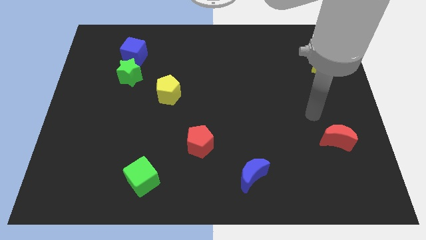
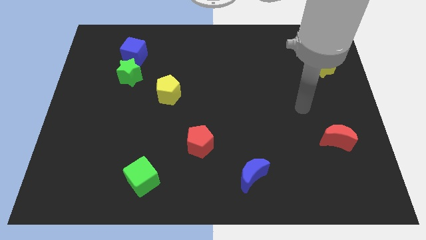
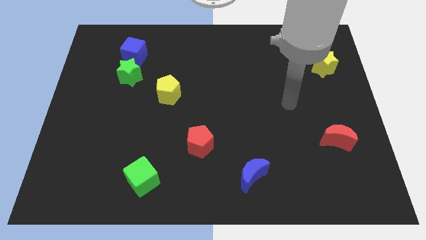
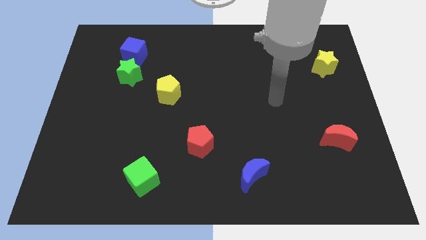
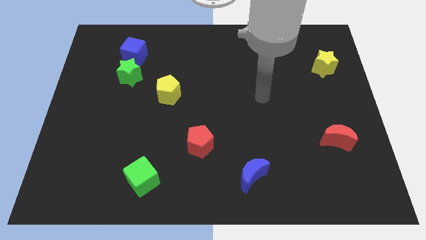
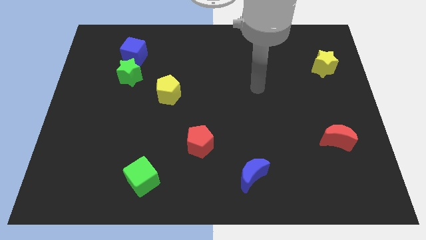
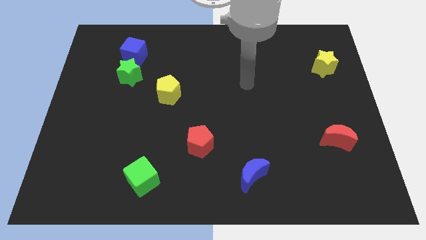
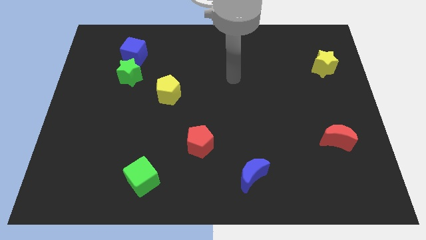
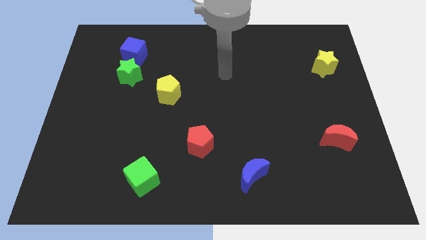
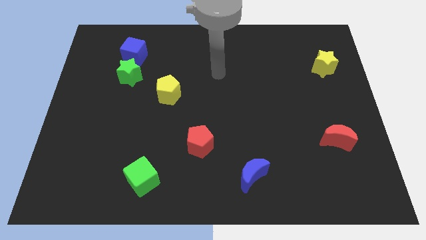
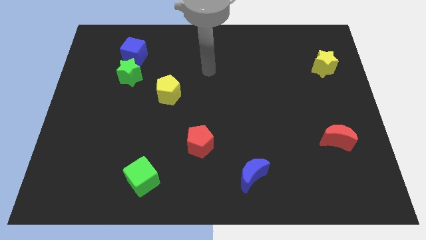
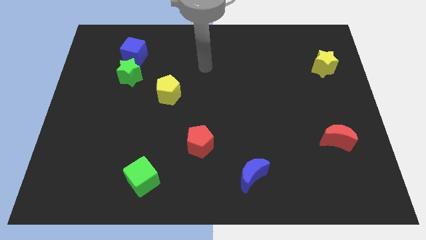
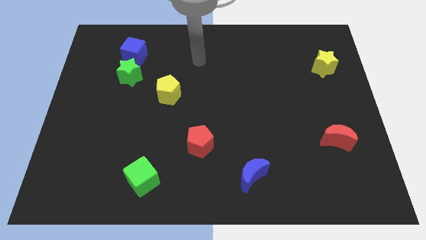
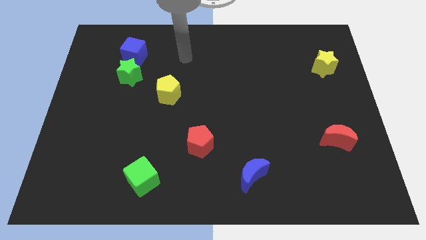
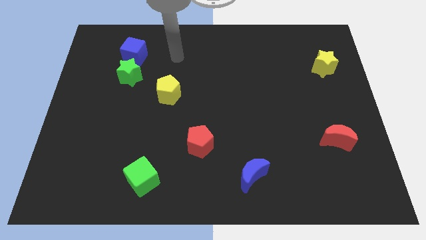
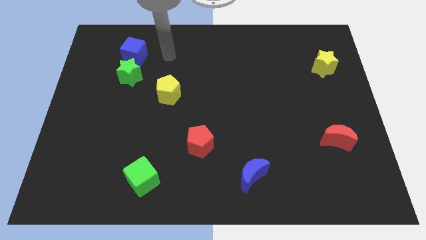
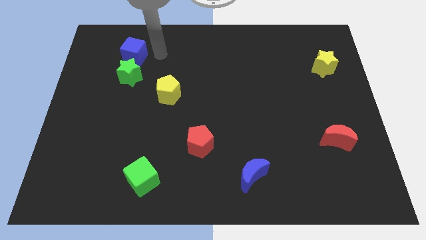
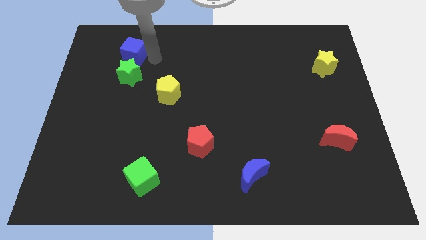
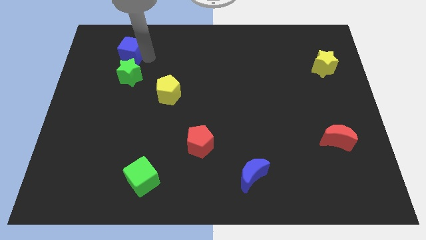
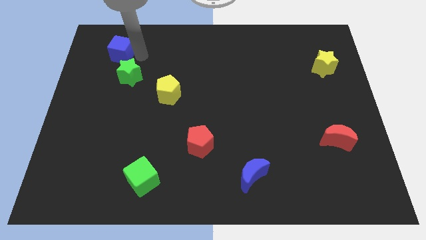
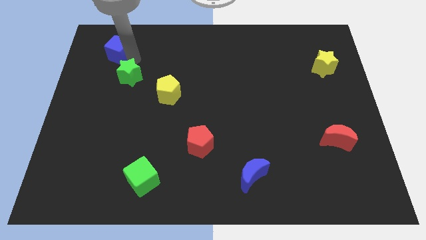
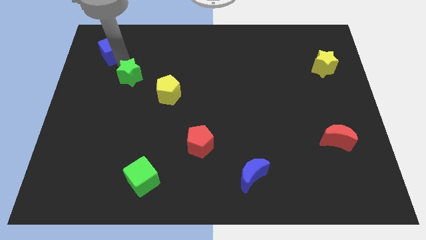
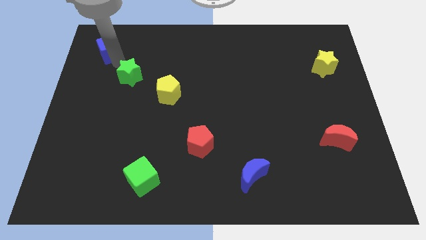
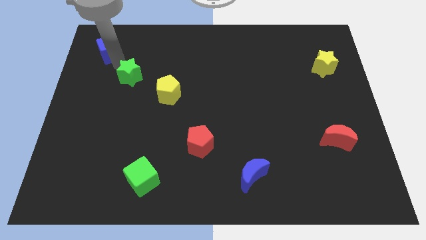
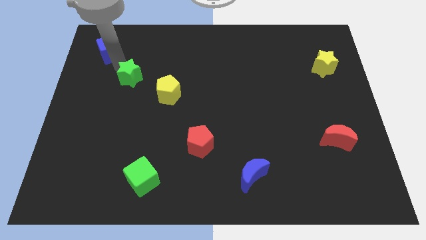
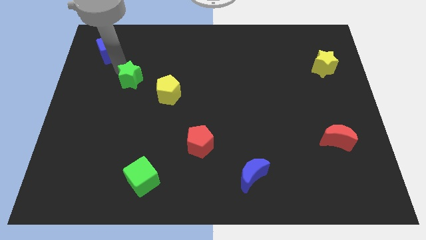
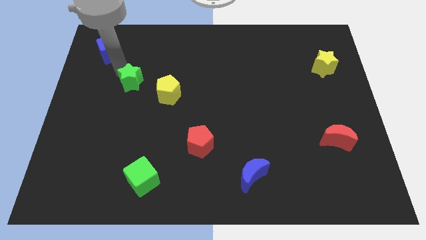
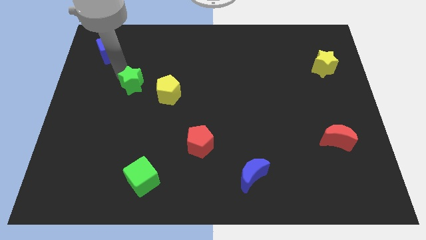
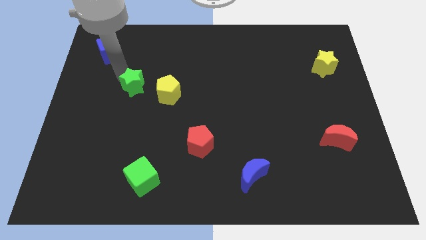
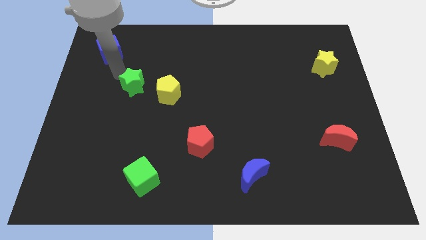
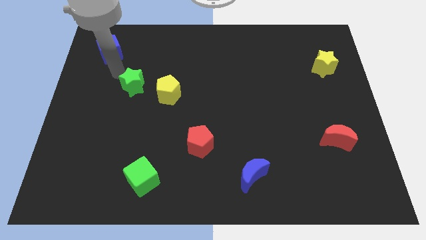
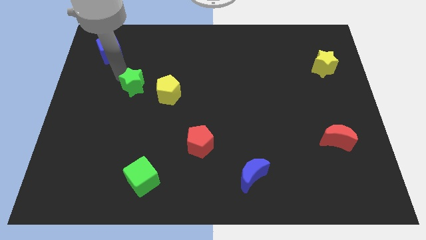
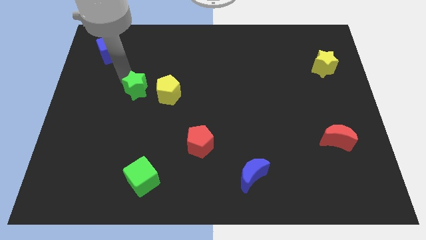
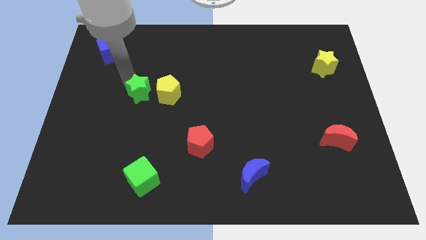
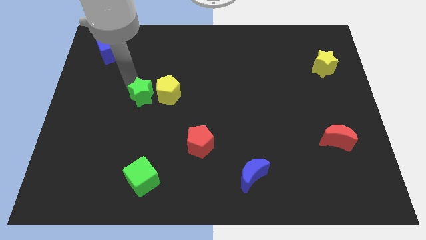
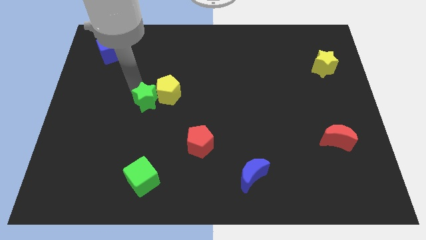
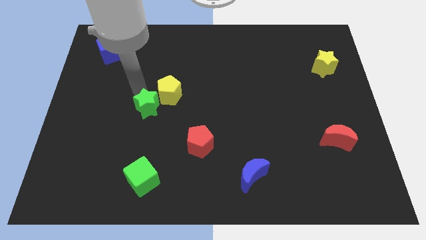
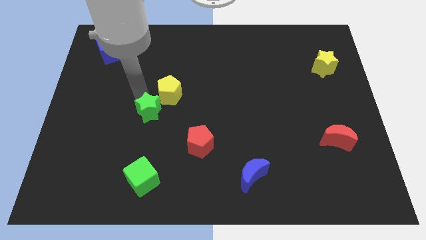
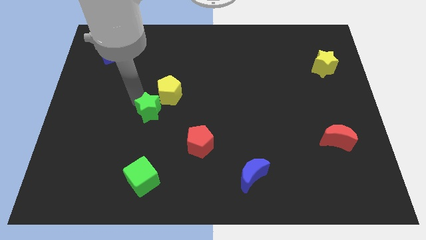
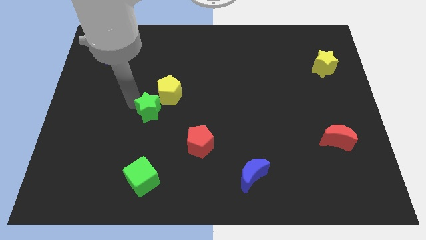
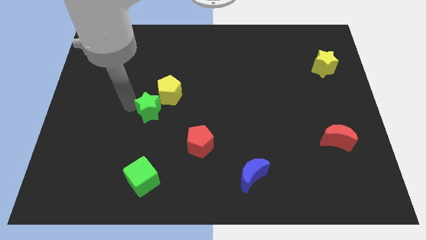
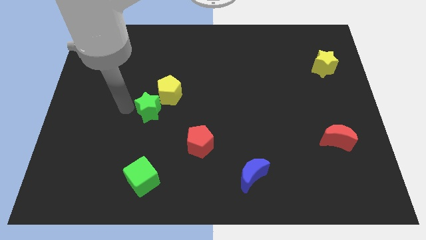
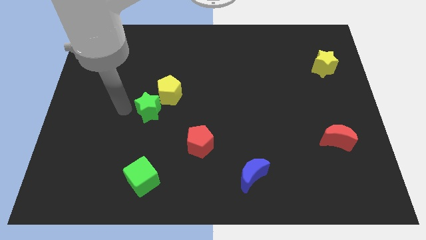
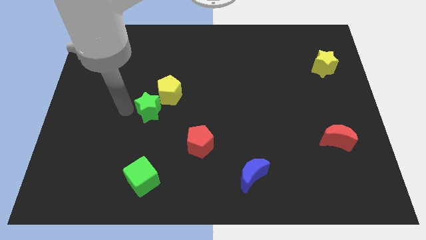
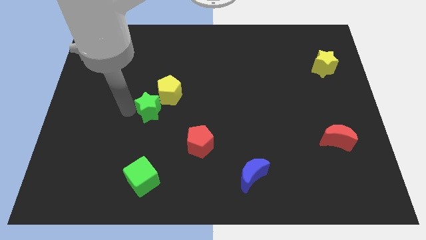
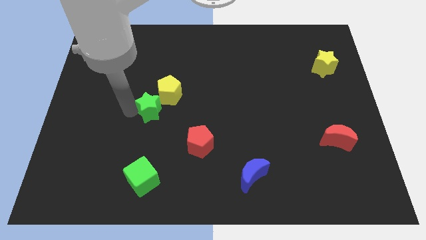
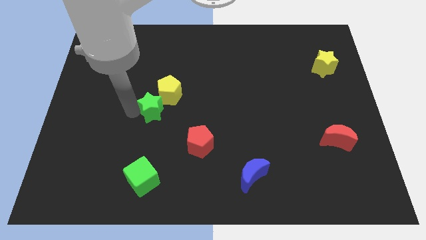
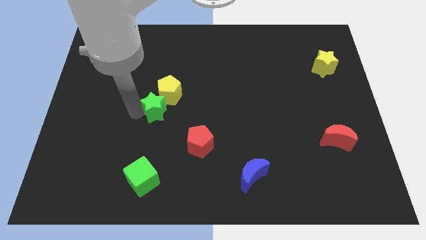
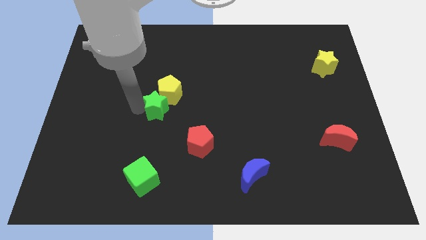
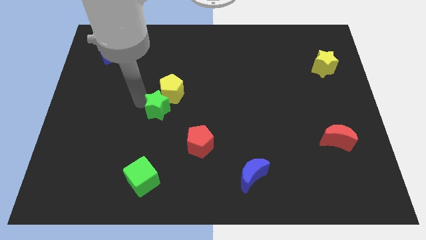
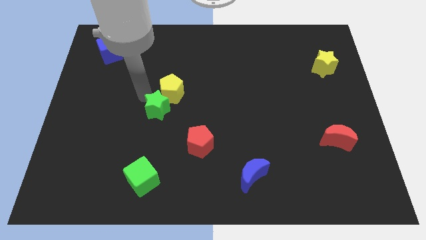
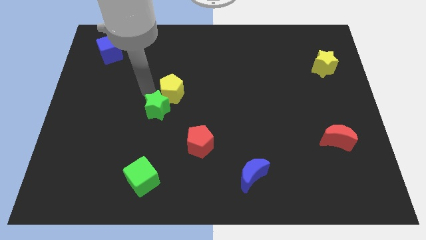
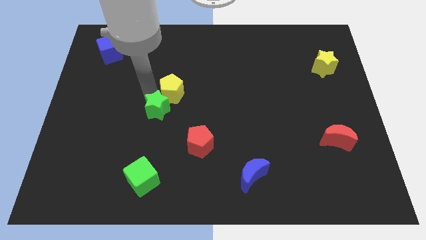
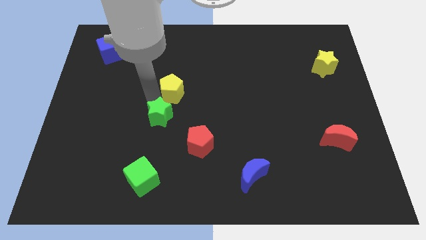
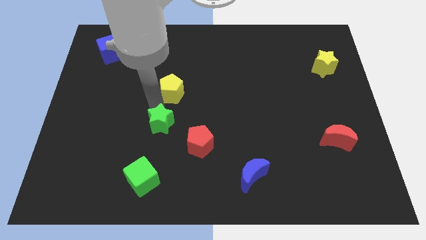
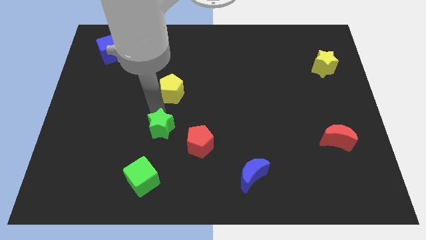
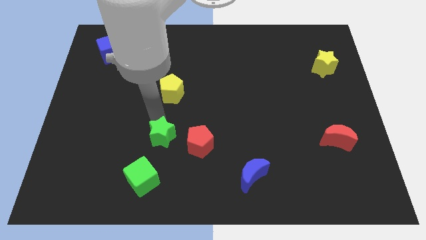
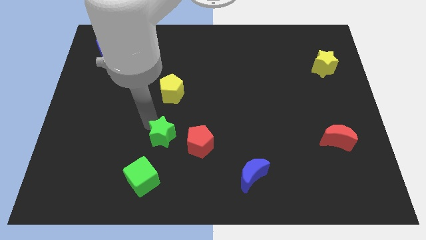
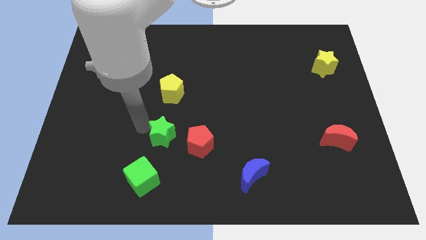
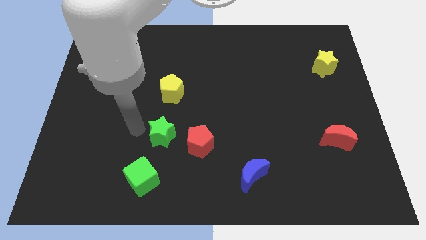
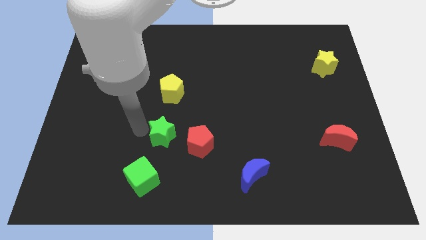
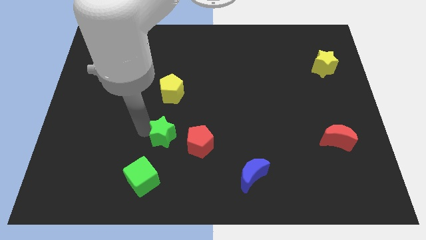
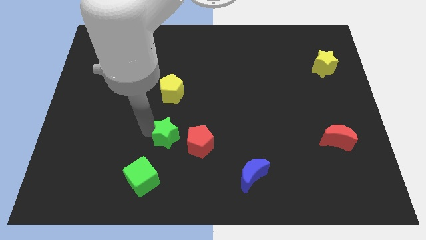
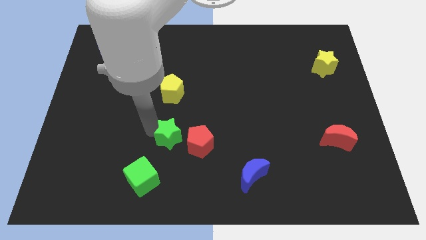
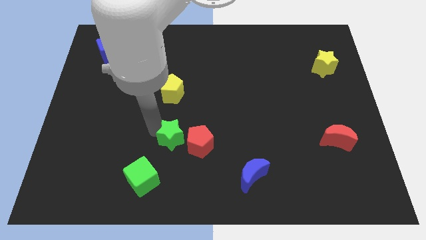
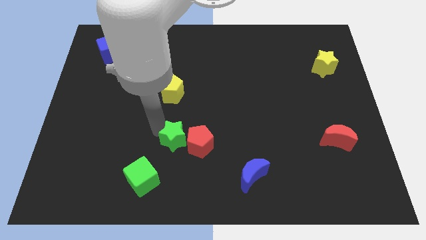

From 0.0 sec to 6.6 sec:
slide the green star to the red pentagon

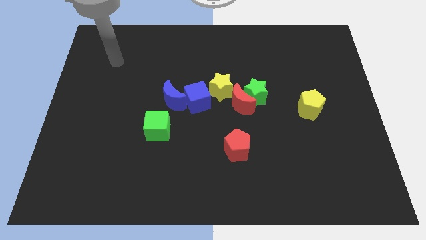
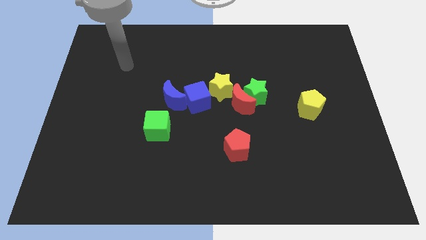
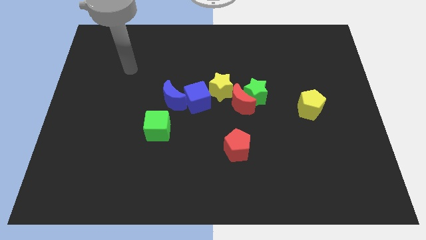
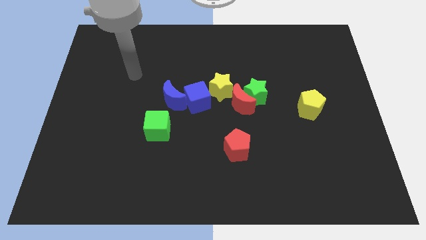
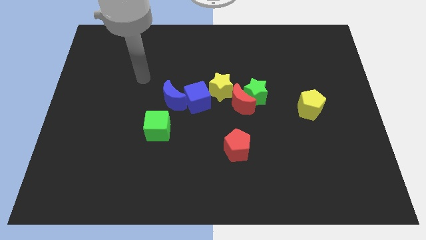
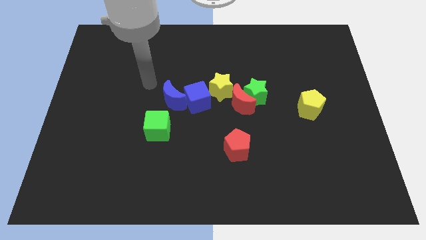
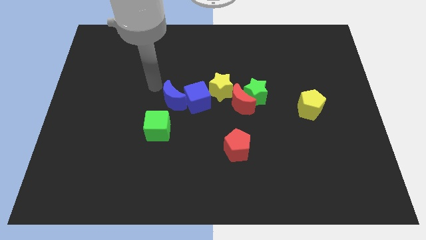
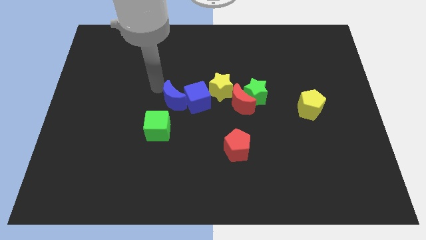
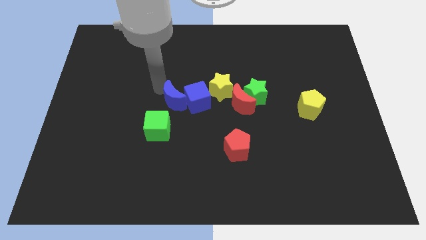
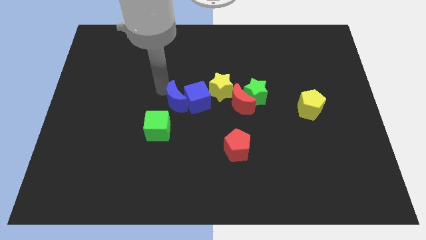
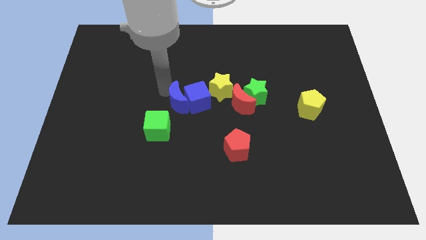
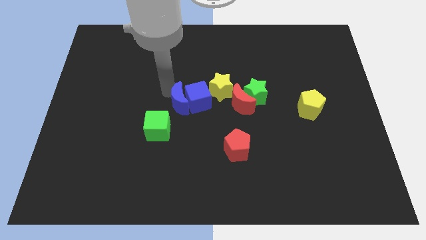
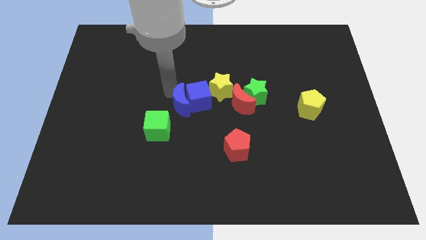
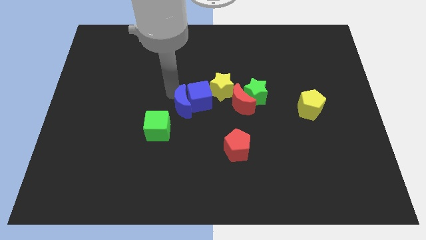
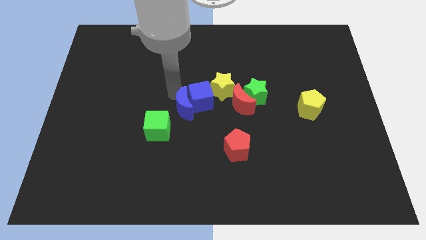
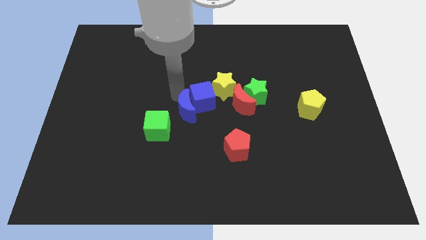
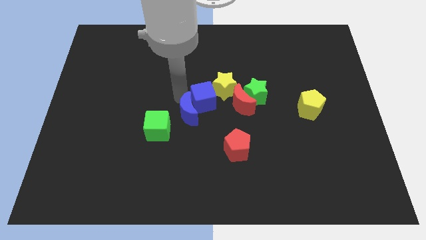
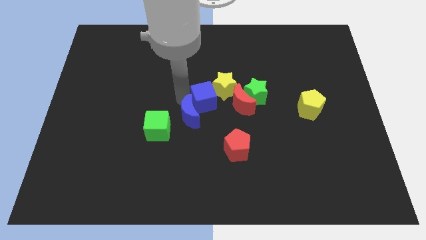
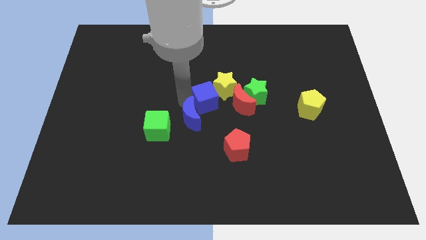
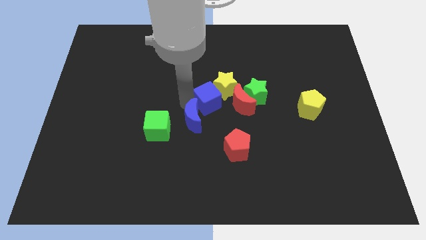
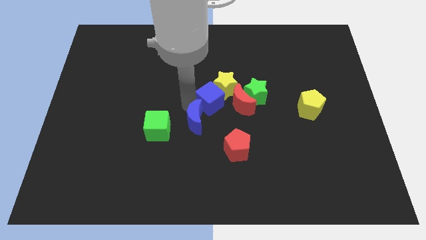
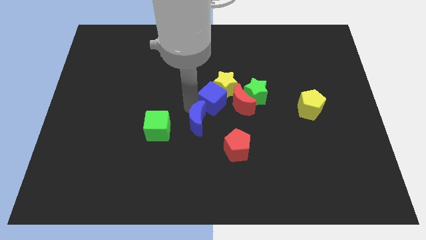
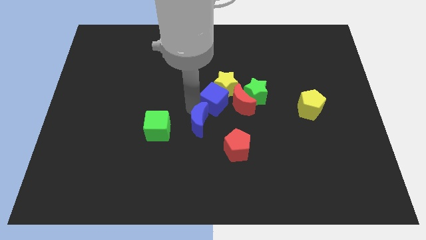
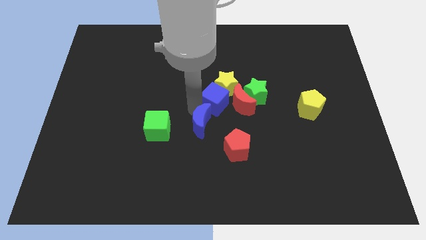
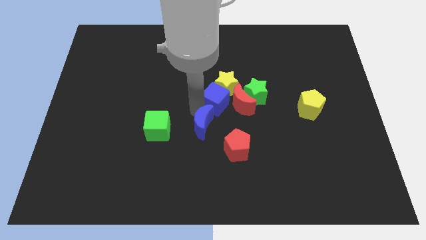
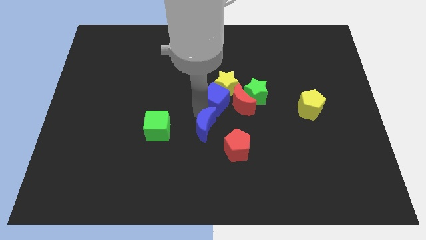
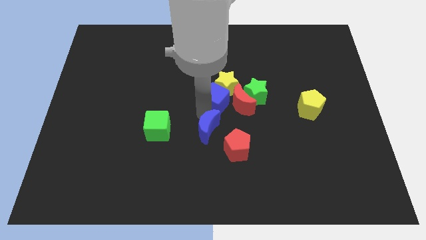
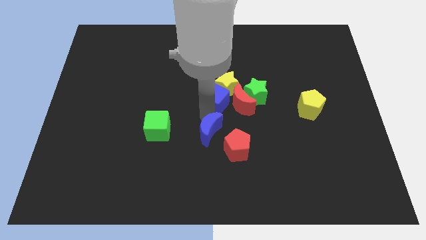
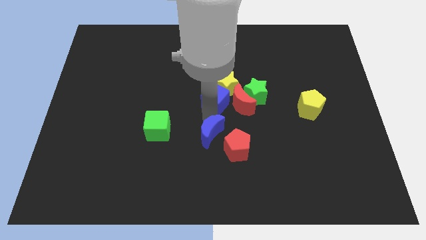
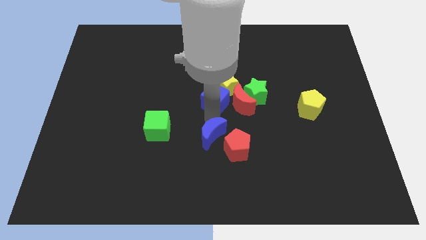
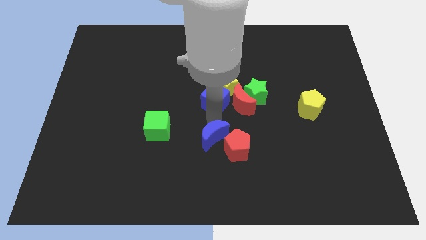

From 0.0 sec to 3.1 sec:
move the blue moon next to the red pentagon
